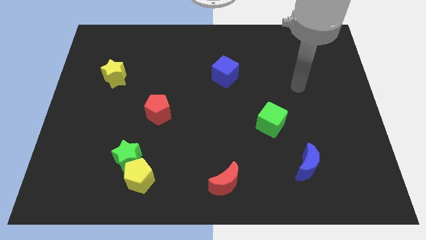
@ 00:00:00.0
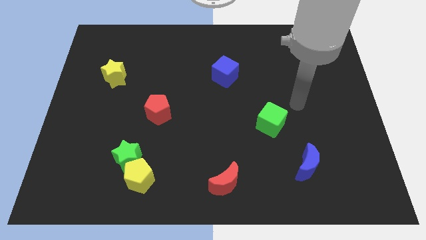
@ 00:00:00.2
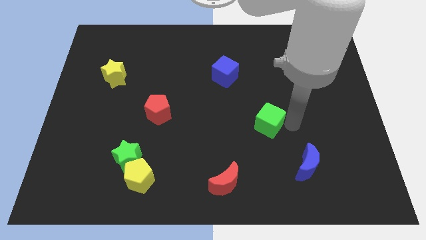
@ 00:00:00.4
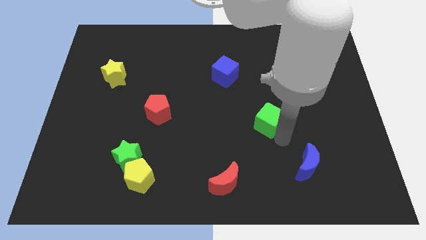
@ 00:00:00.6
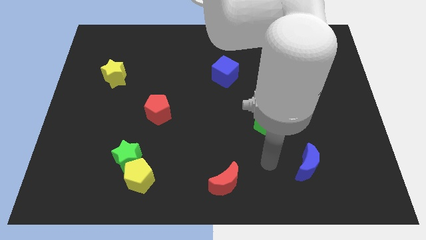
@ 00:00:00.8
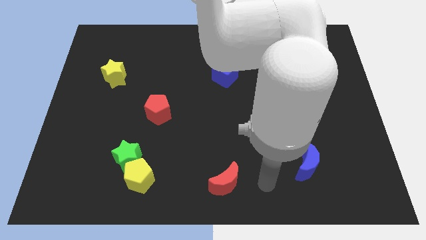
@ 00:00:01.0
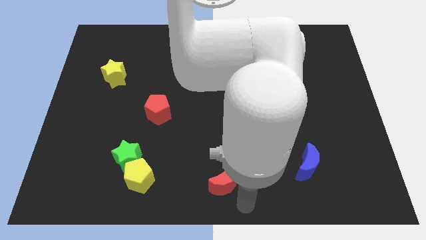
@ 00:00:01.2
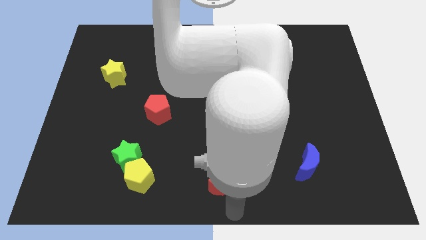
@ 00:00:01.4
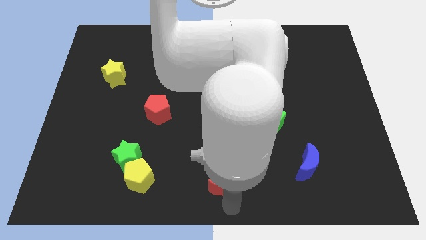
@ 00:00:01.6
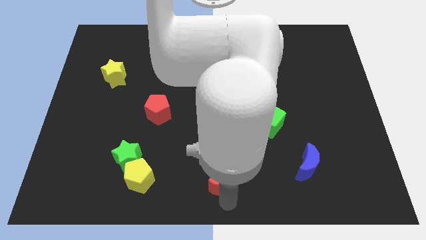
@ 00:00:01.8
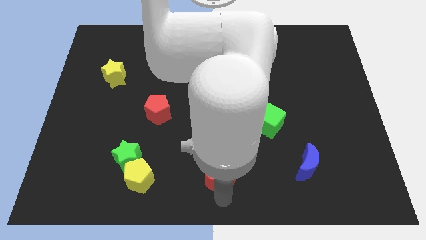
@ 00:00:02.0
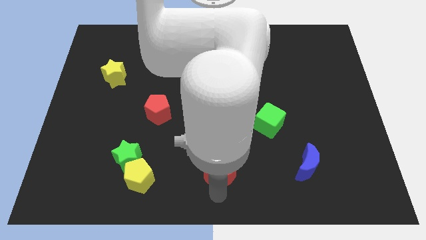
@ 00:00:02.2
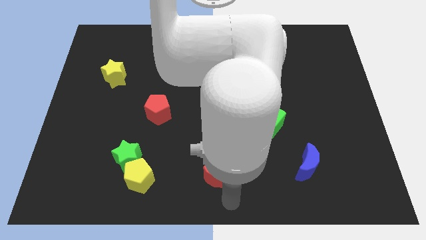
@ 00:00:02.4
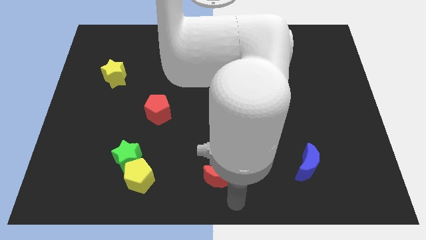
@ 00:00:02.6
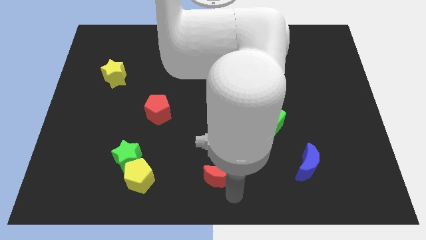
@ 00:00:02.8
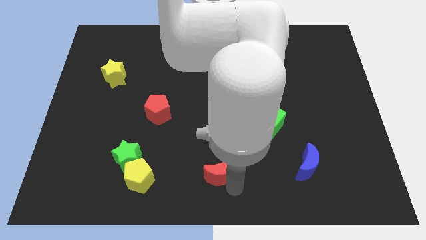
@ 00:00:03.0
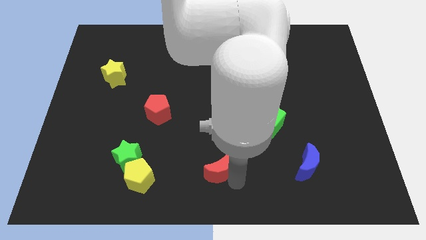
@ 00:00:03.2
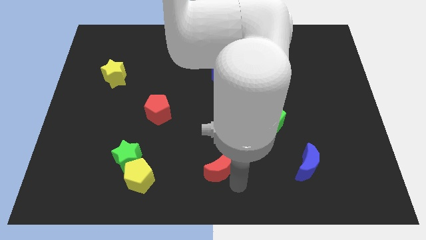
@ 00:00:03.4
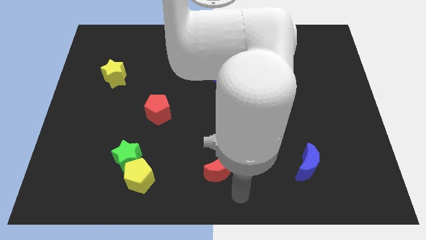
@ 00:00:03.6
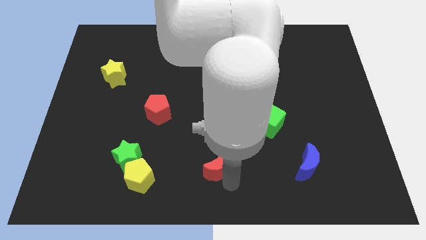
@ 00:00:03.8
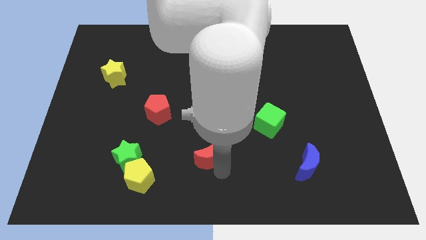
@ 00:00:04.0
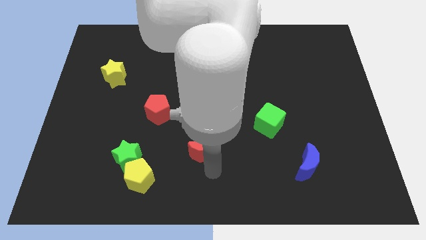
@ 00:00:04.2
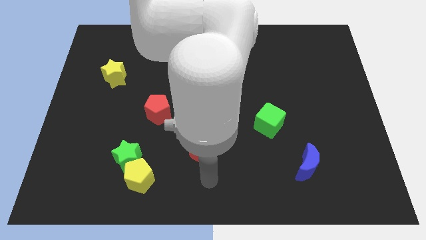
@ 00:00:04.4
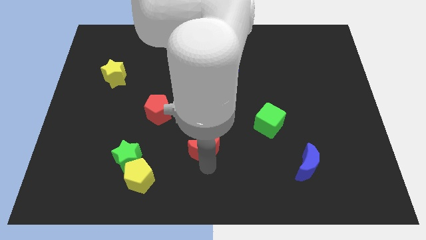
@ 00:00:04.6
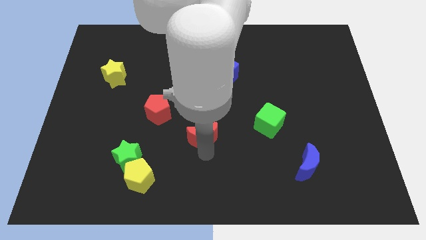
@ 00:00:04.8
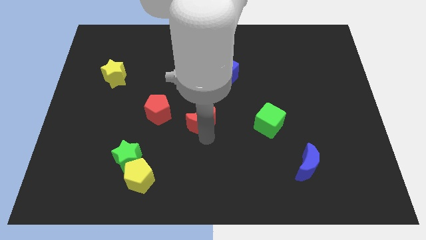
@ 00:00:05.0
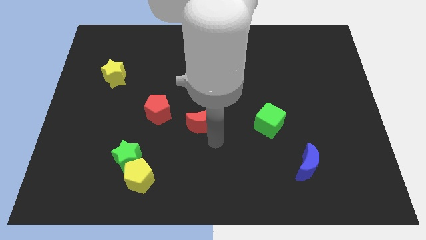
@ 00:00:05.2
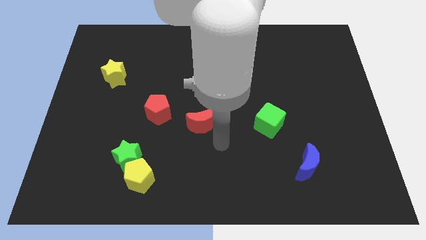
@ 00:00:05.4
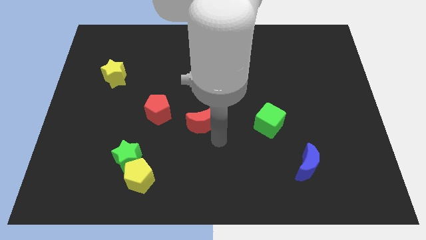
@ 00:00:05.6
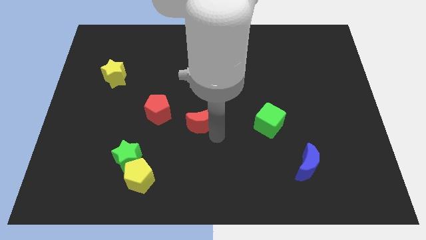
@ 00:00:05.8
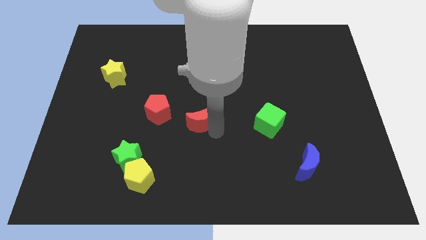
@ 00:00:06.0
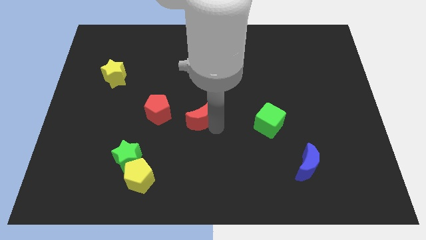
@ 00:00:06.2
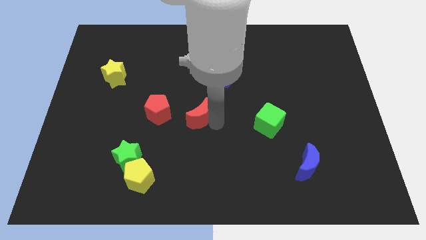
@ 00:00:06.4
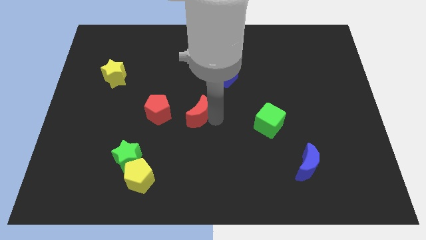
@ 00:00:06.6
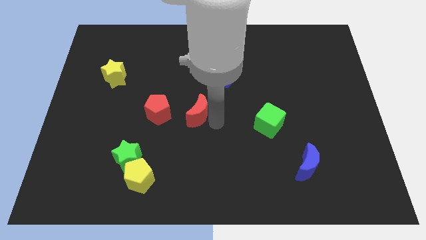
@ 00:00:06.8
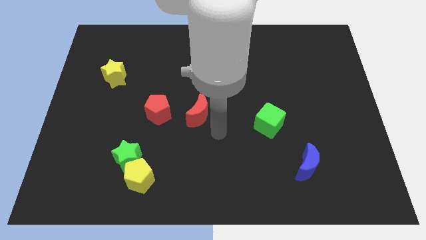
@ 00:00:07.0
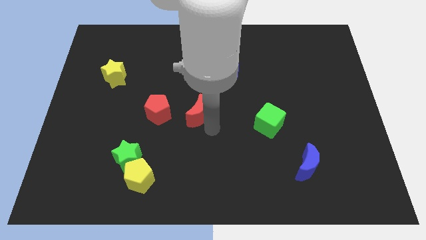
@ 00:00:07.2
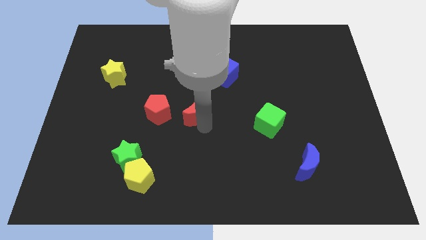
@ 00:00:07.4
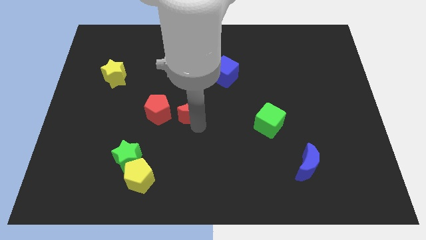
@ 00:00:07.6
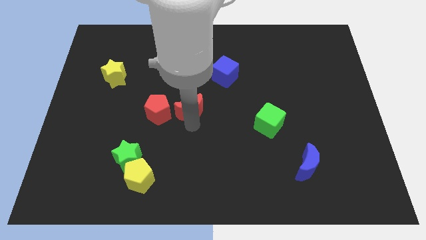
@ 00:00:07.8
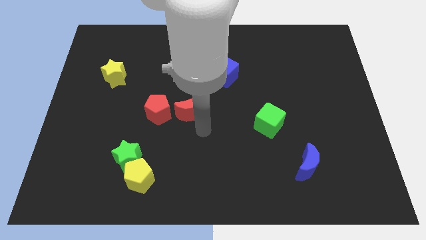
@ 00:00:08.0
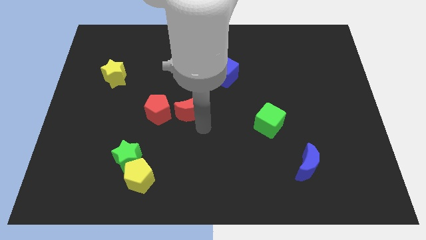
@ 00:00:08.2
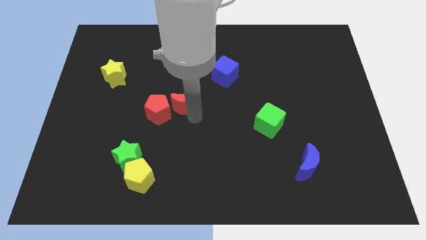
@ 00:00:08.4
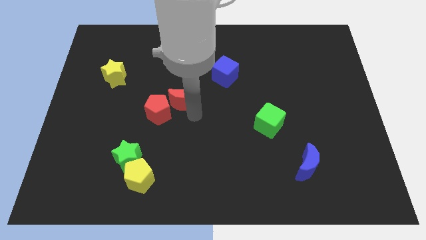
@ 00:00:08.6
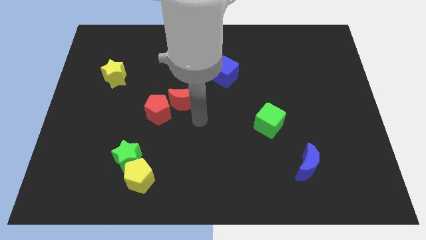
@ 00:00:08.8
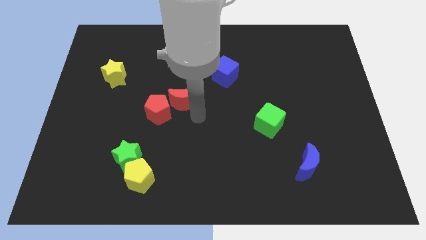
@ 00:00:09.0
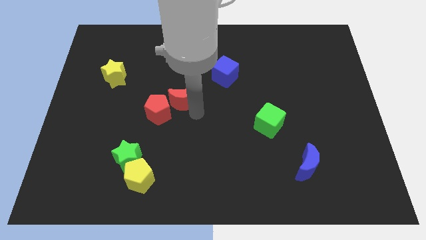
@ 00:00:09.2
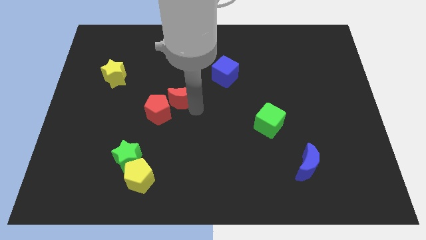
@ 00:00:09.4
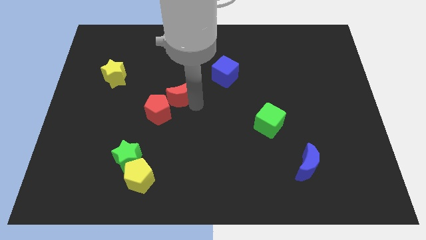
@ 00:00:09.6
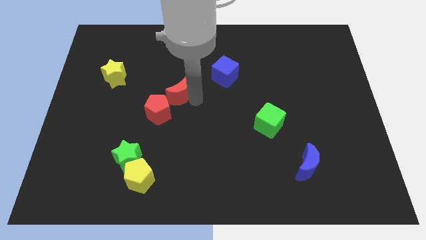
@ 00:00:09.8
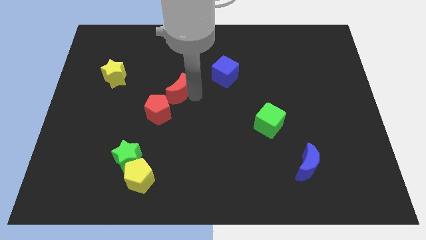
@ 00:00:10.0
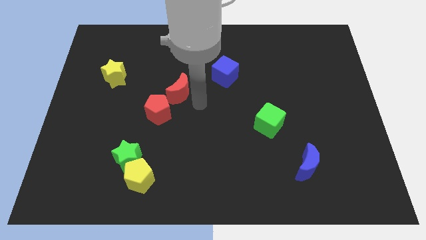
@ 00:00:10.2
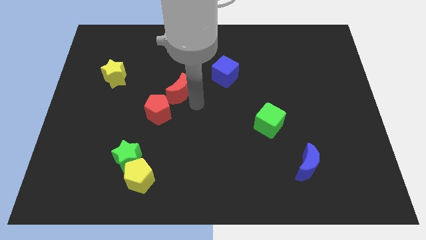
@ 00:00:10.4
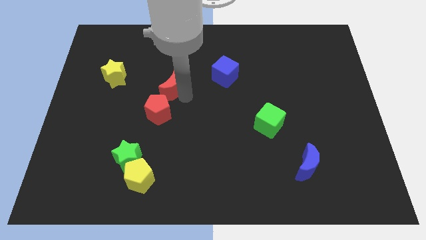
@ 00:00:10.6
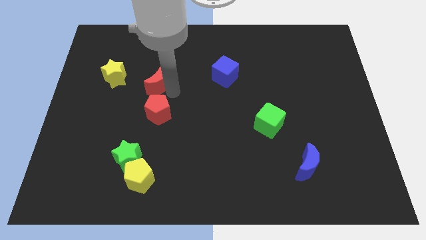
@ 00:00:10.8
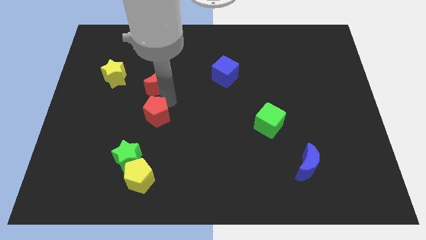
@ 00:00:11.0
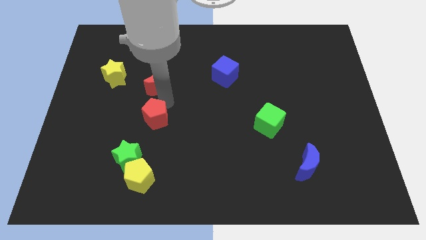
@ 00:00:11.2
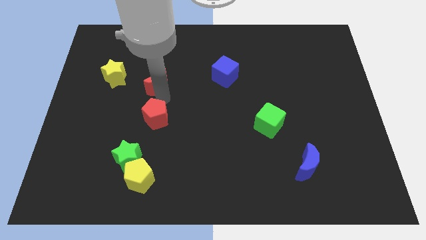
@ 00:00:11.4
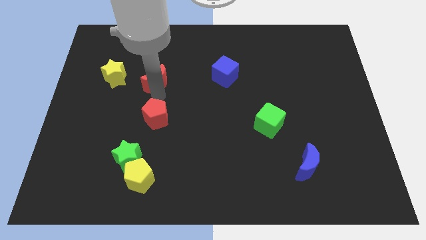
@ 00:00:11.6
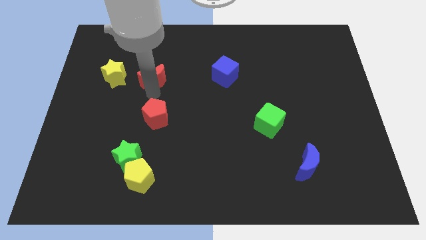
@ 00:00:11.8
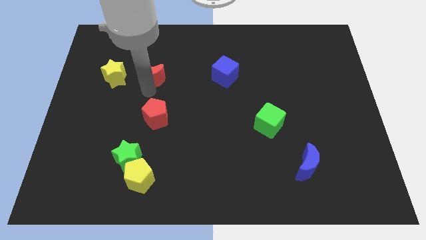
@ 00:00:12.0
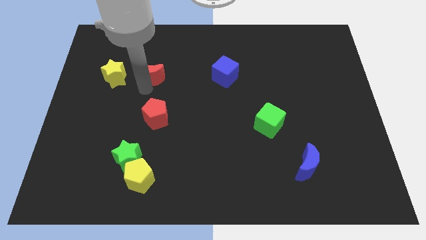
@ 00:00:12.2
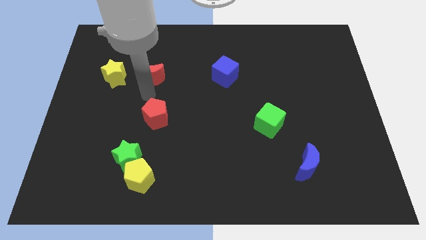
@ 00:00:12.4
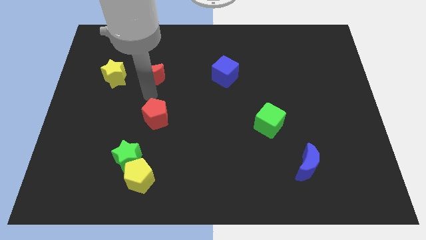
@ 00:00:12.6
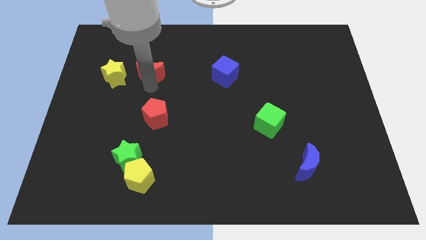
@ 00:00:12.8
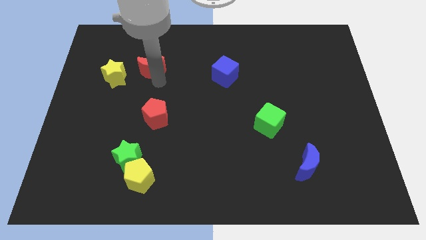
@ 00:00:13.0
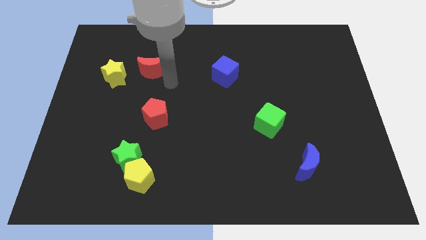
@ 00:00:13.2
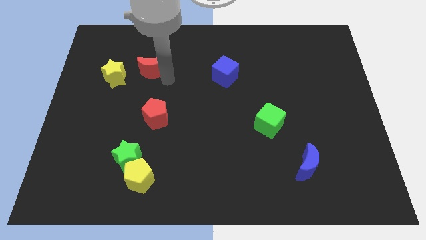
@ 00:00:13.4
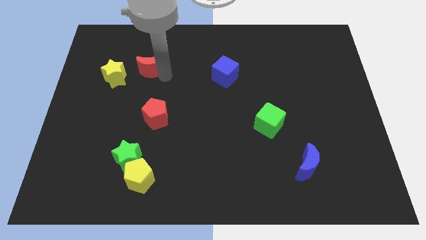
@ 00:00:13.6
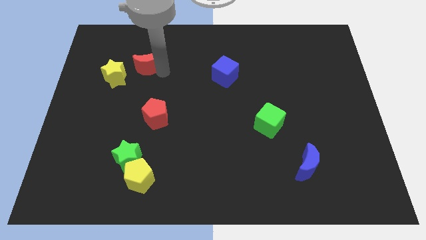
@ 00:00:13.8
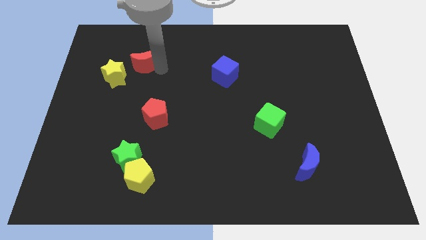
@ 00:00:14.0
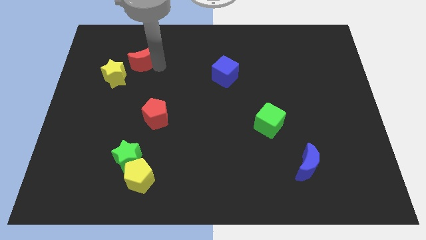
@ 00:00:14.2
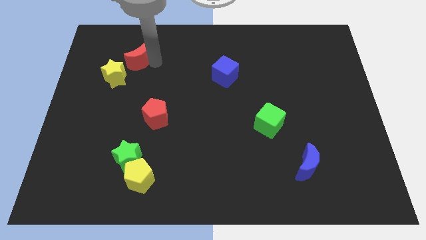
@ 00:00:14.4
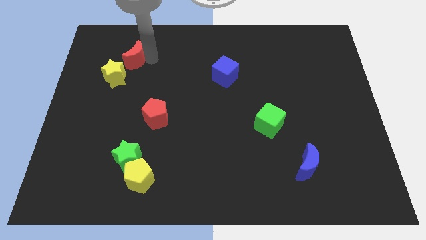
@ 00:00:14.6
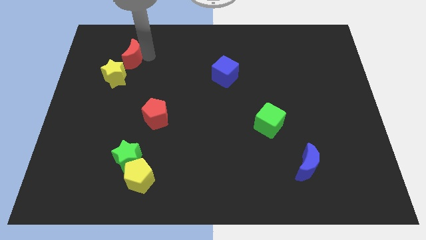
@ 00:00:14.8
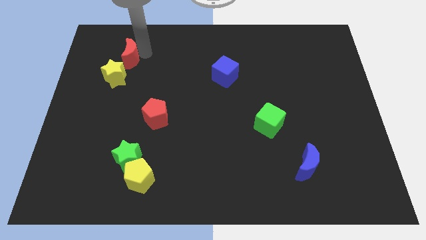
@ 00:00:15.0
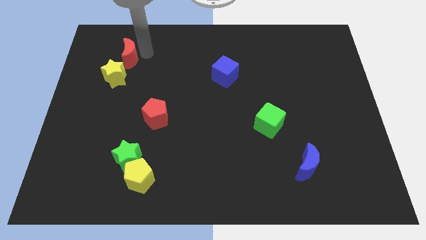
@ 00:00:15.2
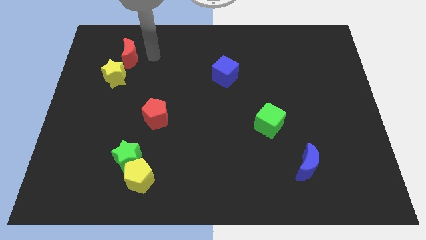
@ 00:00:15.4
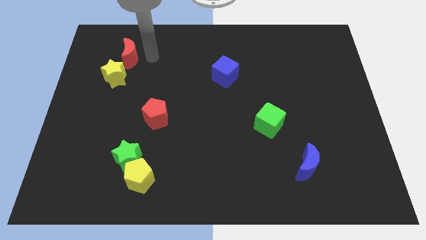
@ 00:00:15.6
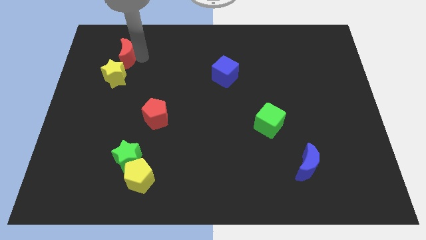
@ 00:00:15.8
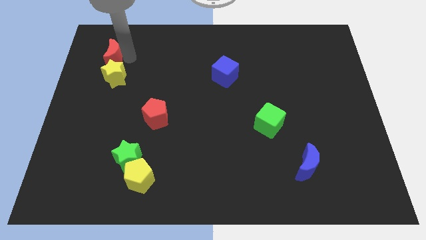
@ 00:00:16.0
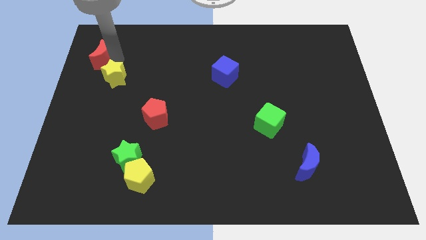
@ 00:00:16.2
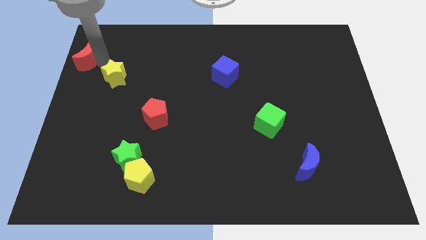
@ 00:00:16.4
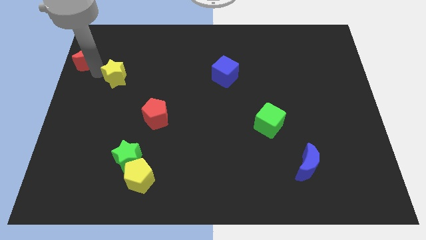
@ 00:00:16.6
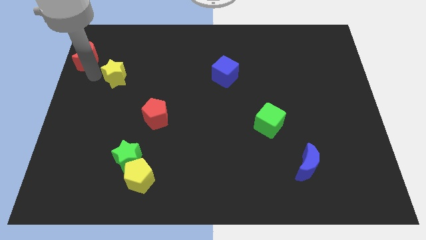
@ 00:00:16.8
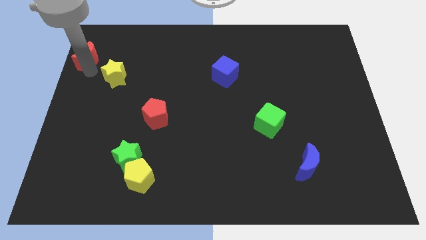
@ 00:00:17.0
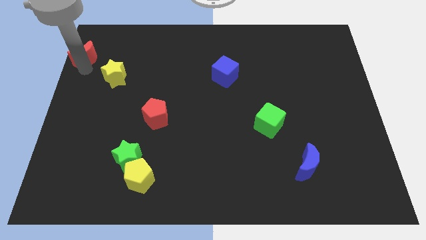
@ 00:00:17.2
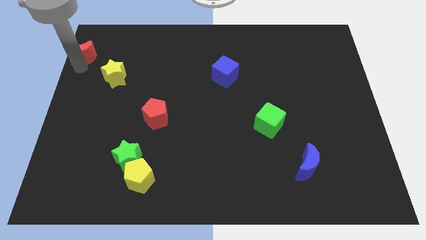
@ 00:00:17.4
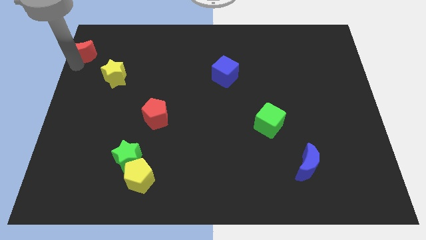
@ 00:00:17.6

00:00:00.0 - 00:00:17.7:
push the red moon to the top left corner
